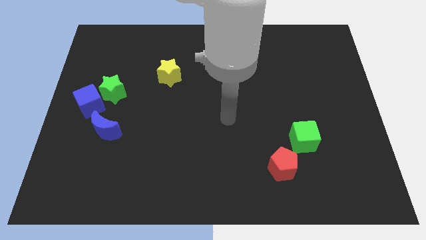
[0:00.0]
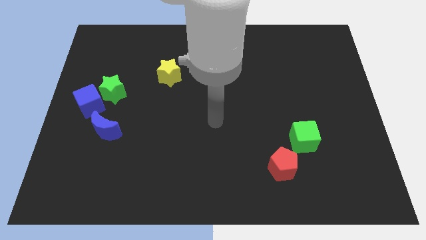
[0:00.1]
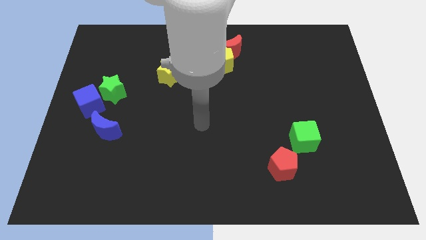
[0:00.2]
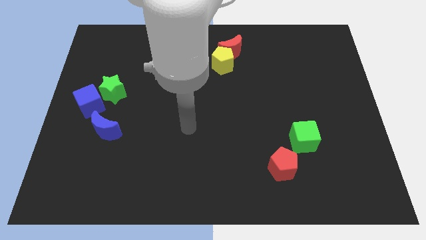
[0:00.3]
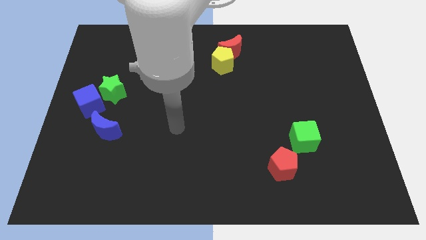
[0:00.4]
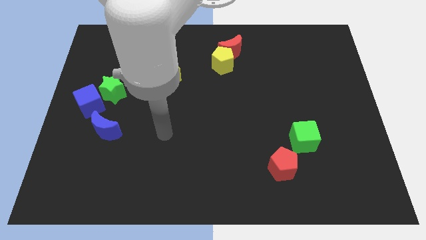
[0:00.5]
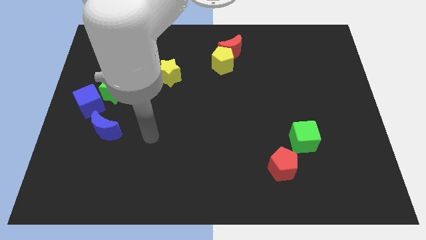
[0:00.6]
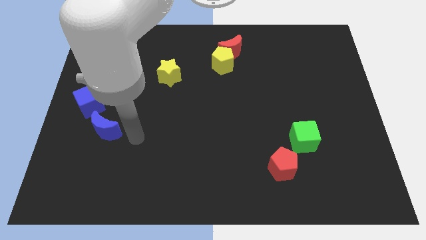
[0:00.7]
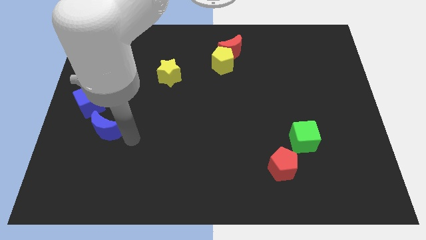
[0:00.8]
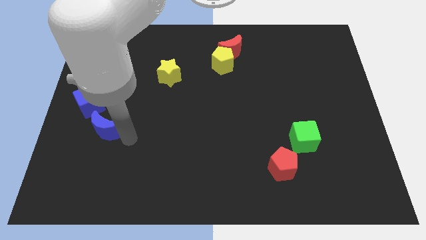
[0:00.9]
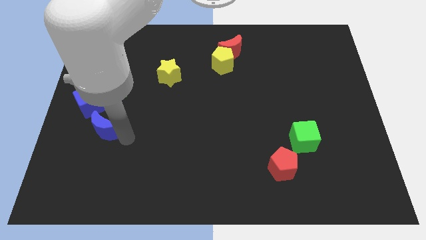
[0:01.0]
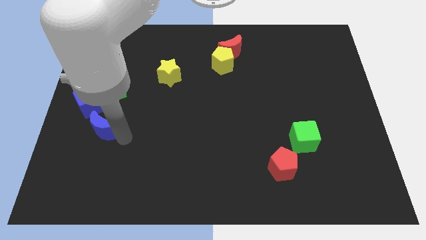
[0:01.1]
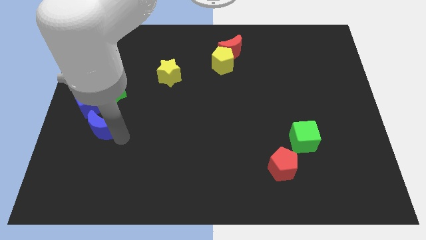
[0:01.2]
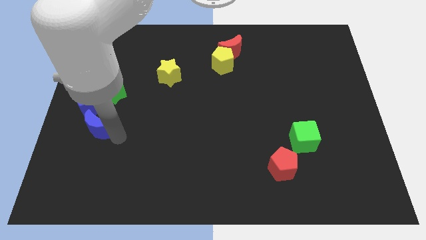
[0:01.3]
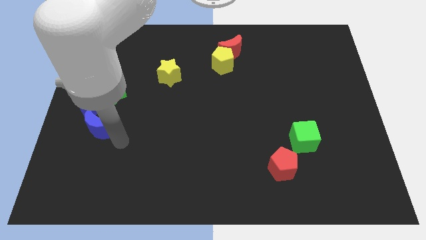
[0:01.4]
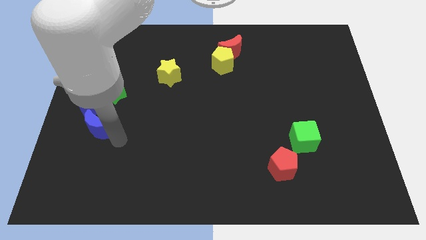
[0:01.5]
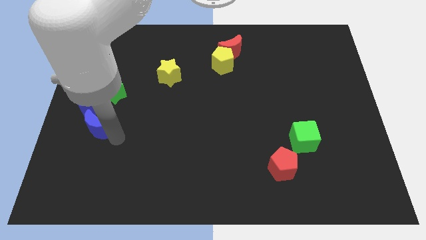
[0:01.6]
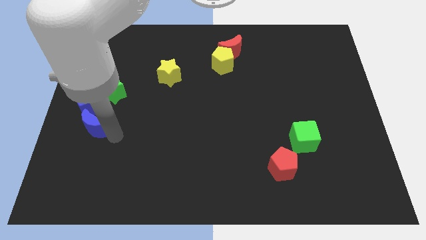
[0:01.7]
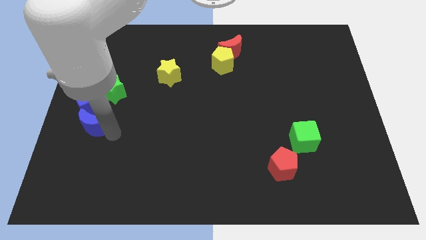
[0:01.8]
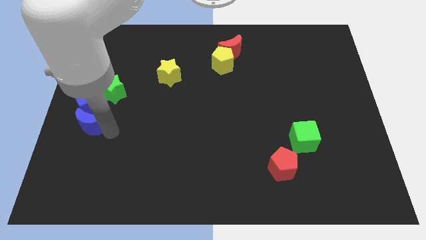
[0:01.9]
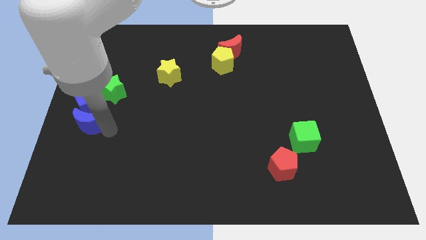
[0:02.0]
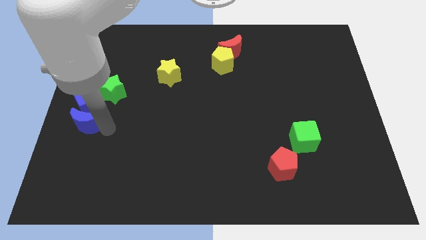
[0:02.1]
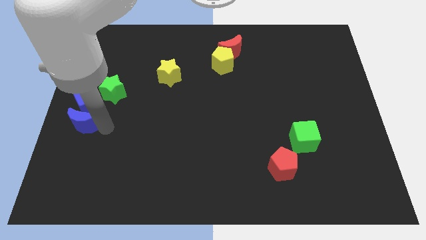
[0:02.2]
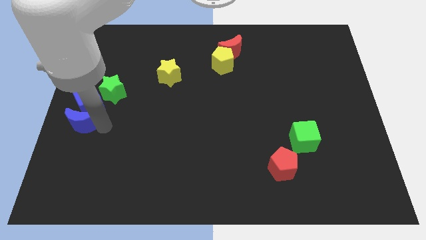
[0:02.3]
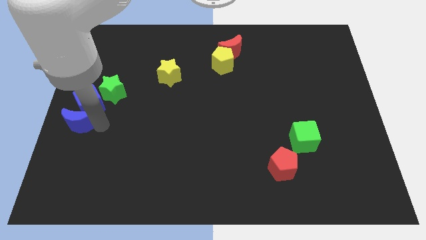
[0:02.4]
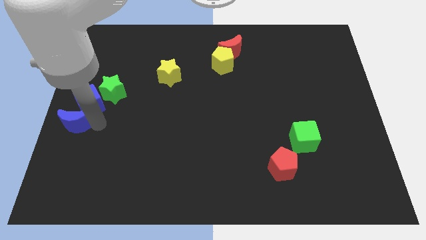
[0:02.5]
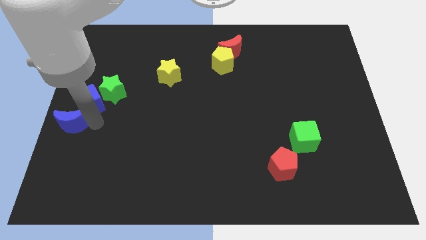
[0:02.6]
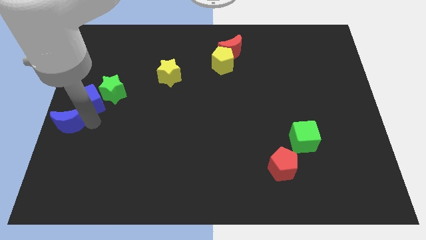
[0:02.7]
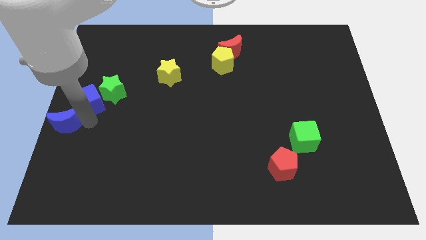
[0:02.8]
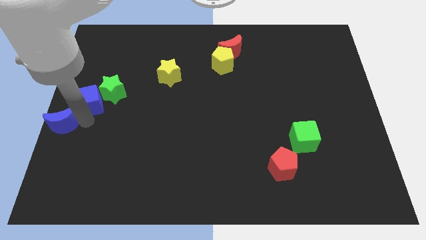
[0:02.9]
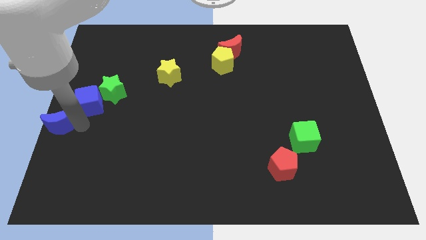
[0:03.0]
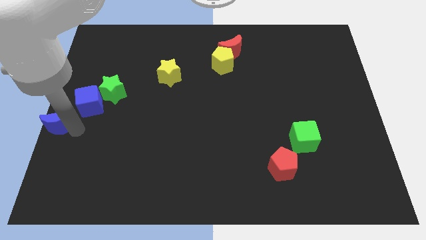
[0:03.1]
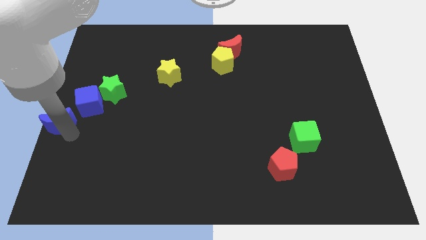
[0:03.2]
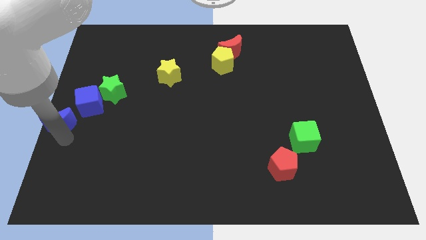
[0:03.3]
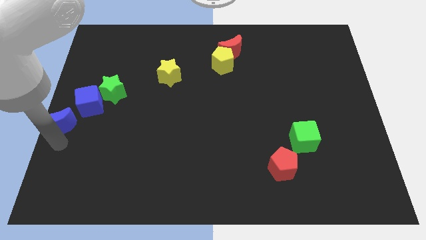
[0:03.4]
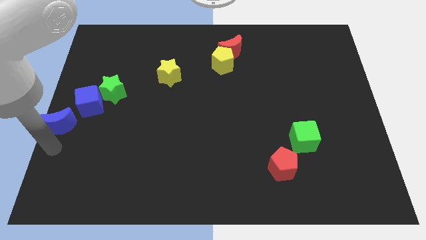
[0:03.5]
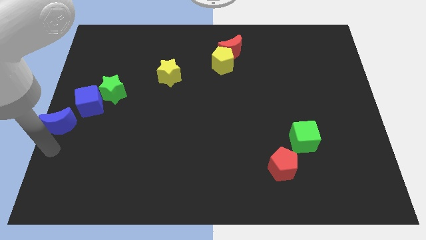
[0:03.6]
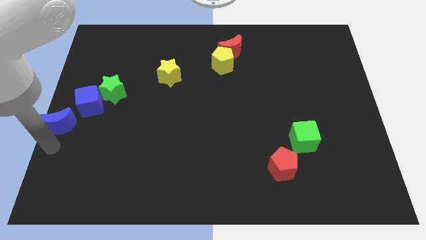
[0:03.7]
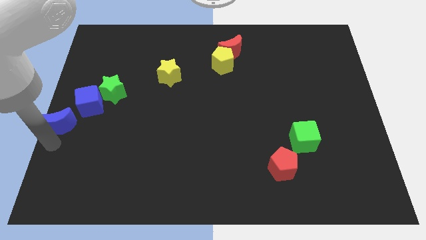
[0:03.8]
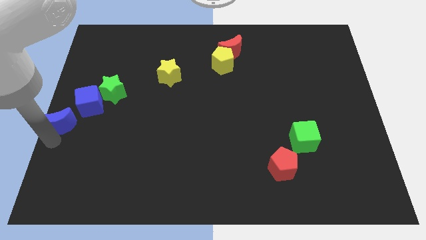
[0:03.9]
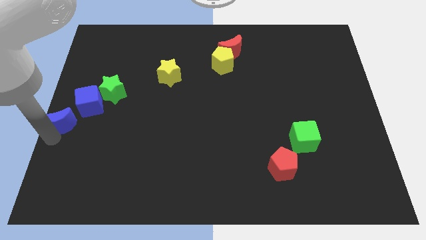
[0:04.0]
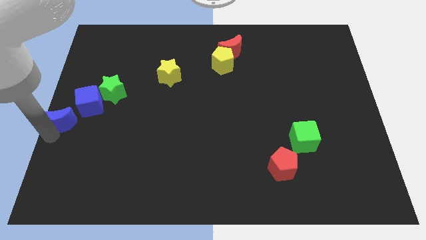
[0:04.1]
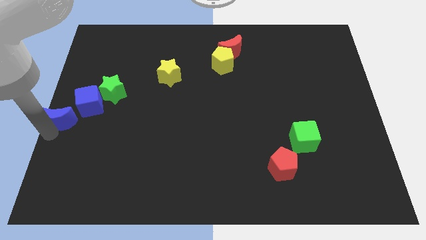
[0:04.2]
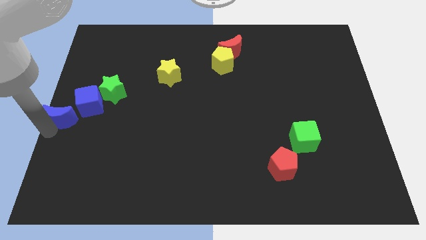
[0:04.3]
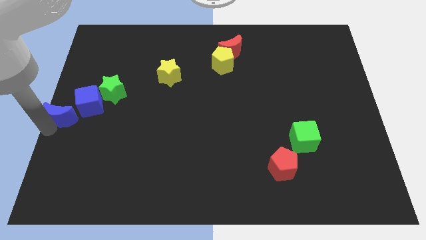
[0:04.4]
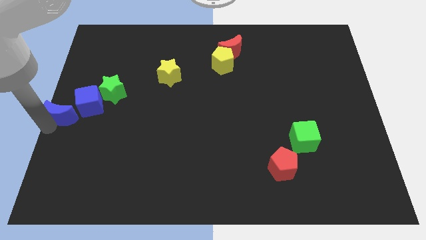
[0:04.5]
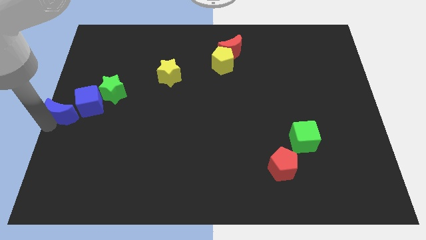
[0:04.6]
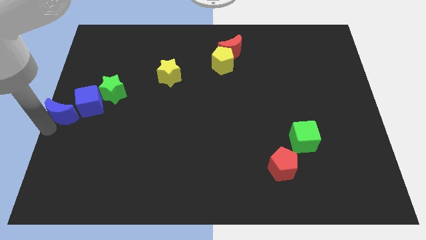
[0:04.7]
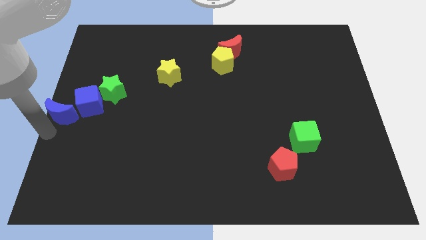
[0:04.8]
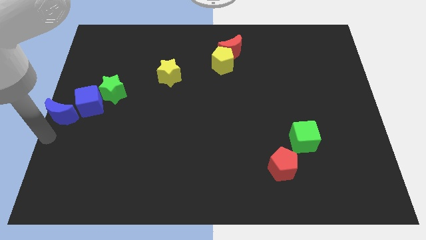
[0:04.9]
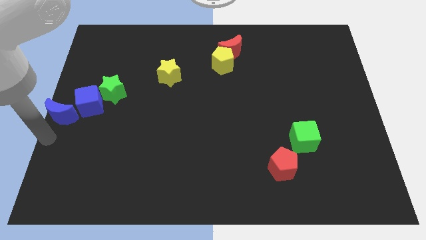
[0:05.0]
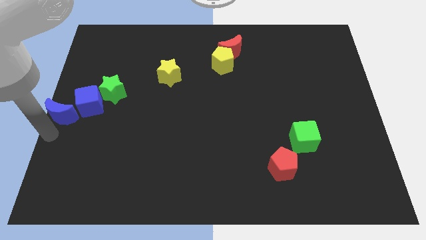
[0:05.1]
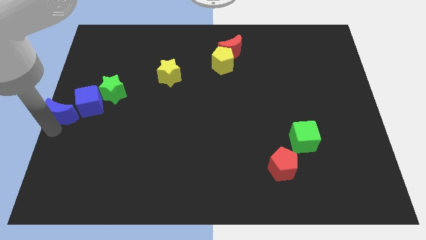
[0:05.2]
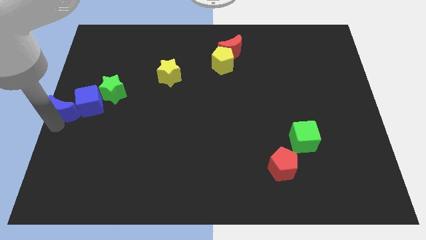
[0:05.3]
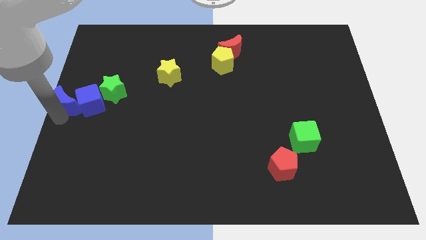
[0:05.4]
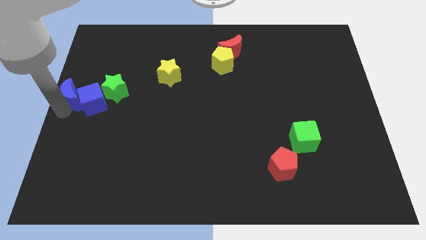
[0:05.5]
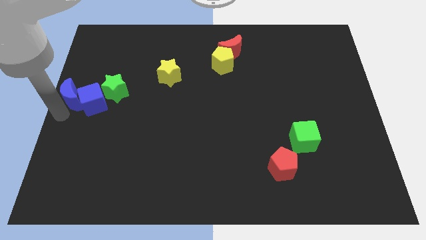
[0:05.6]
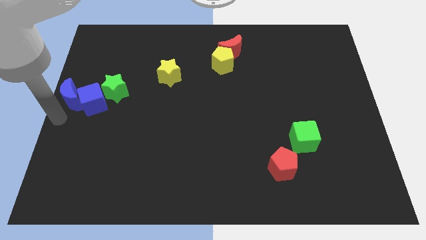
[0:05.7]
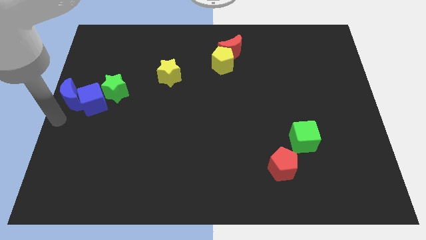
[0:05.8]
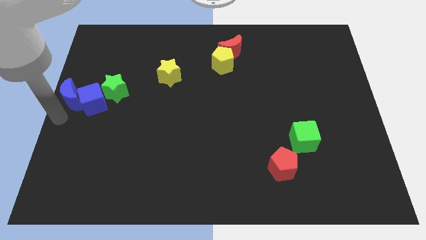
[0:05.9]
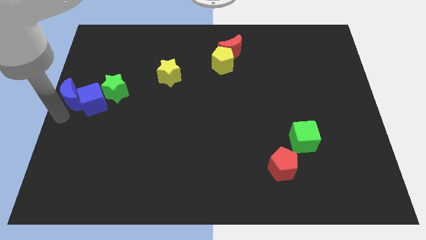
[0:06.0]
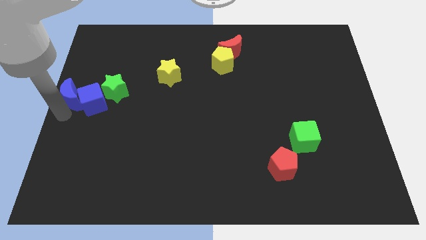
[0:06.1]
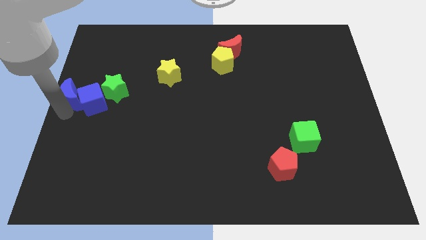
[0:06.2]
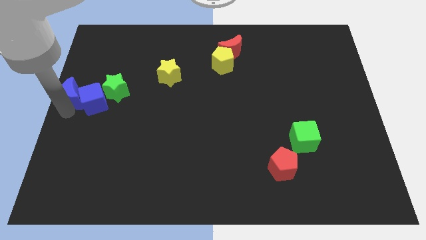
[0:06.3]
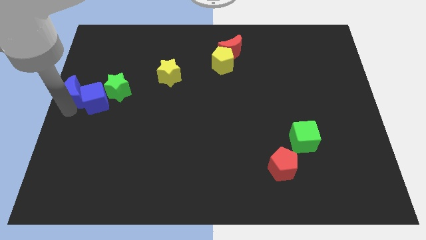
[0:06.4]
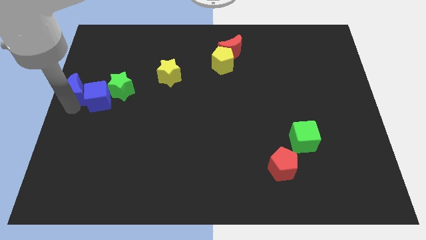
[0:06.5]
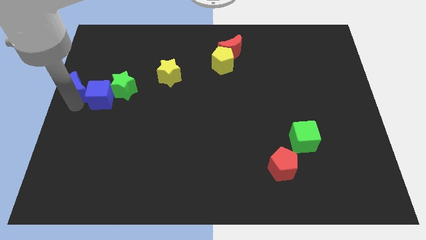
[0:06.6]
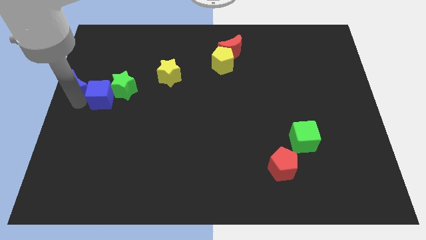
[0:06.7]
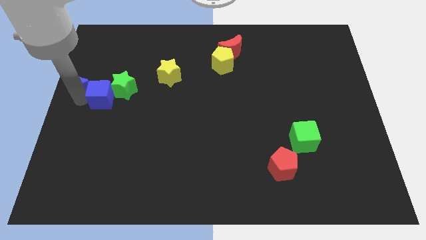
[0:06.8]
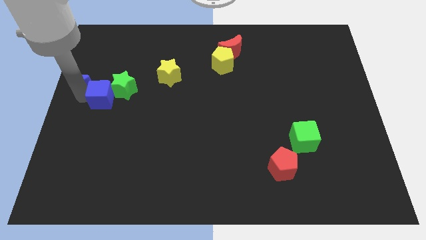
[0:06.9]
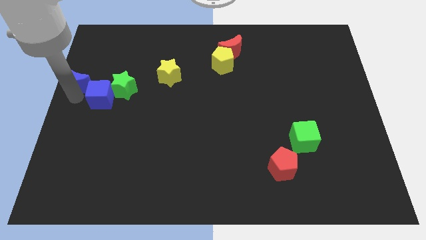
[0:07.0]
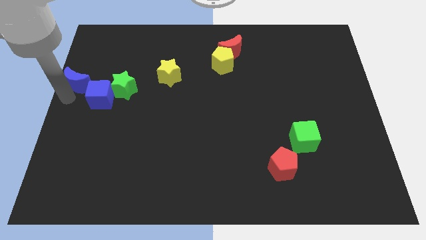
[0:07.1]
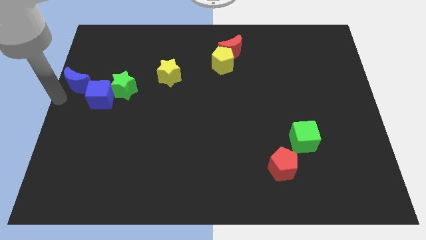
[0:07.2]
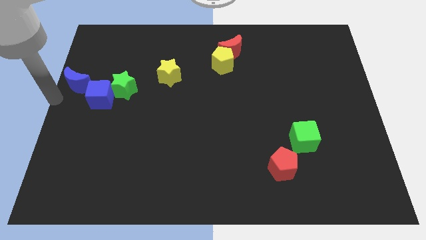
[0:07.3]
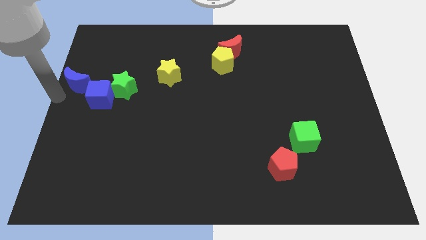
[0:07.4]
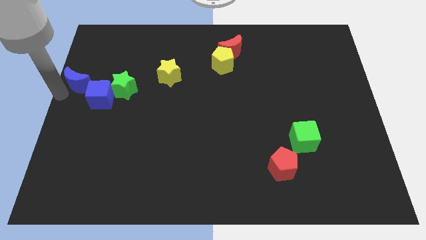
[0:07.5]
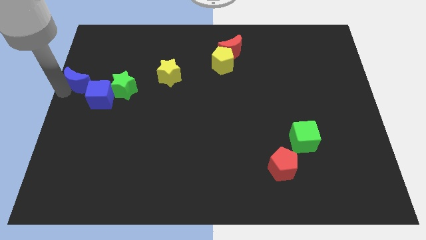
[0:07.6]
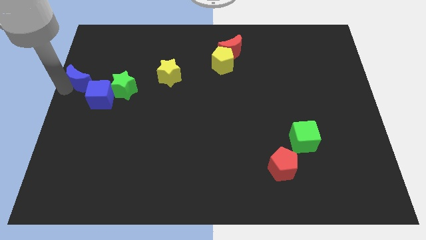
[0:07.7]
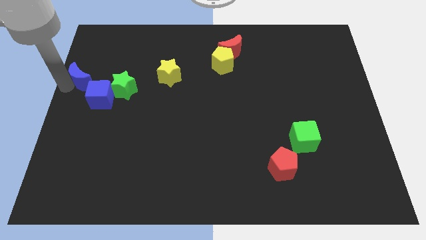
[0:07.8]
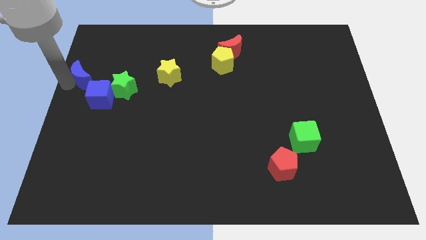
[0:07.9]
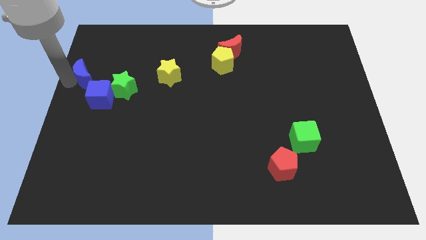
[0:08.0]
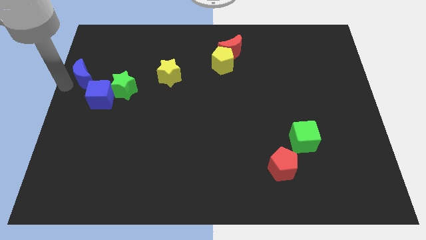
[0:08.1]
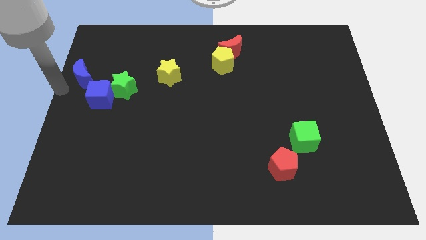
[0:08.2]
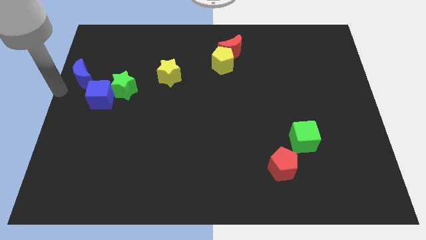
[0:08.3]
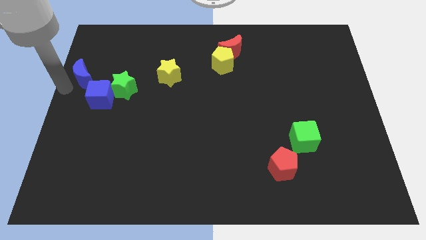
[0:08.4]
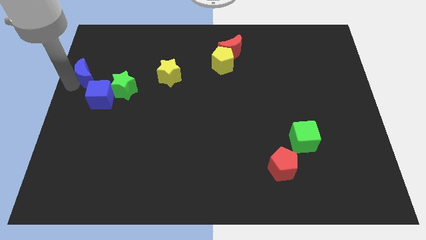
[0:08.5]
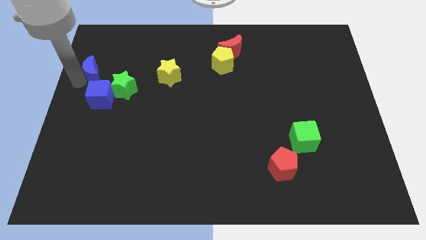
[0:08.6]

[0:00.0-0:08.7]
slide the blue moon to the top of the blue cube
